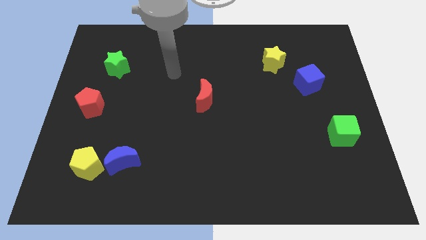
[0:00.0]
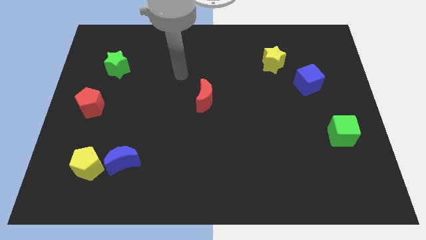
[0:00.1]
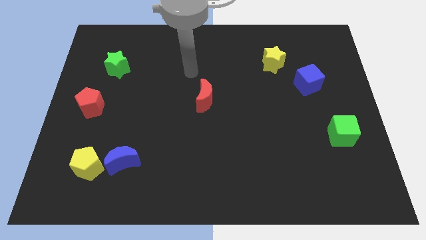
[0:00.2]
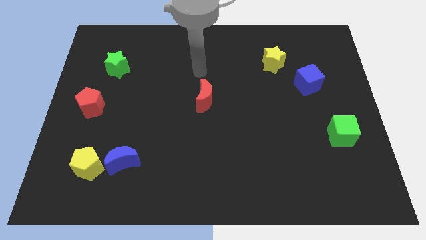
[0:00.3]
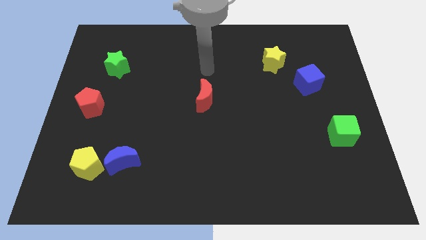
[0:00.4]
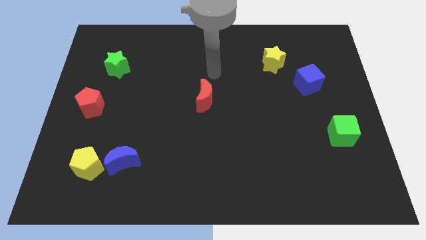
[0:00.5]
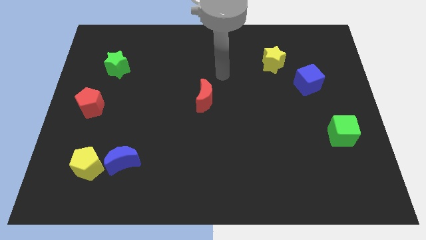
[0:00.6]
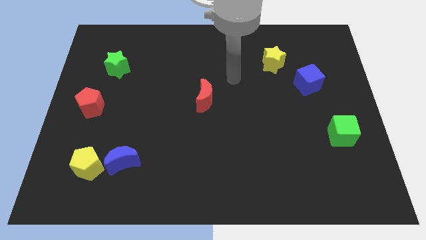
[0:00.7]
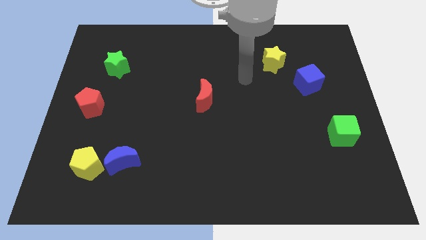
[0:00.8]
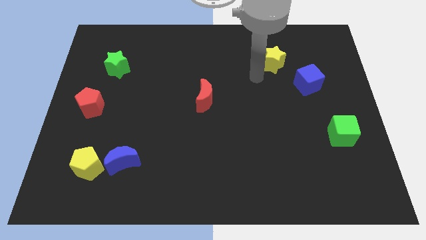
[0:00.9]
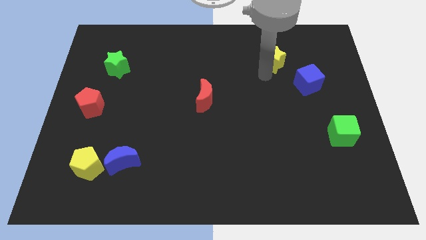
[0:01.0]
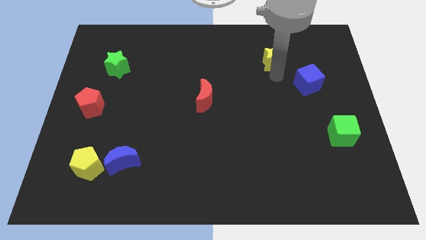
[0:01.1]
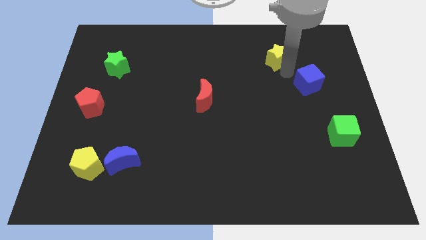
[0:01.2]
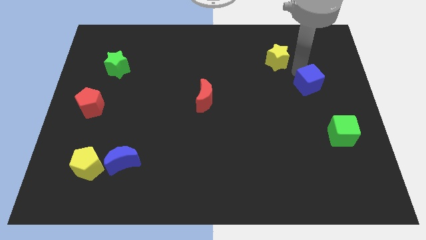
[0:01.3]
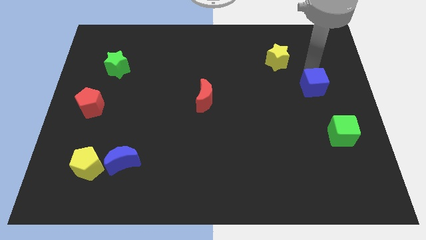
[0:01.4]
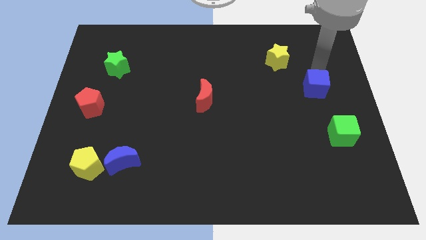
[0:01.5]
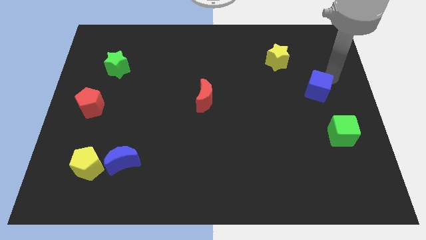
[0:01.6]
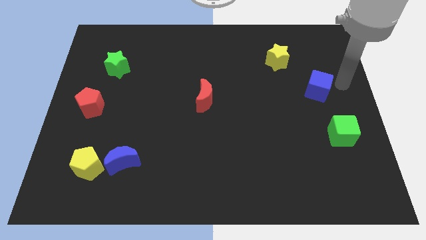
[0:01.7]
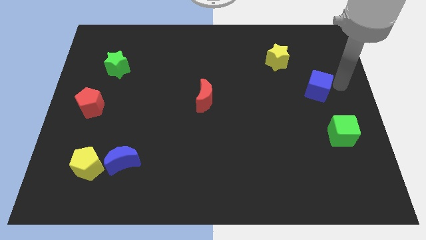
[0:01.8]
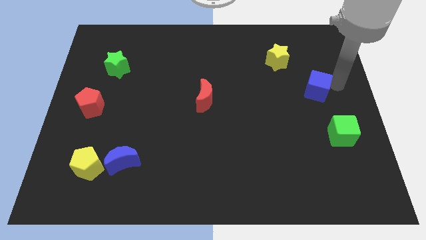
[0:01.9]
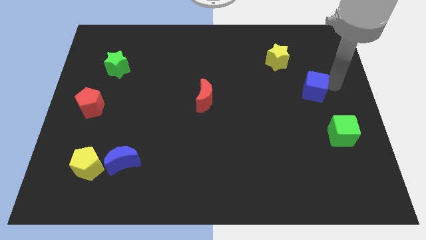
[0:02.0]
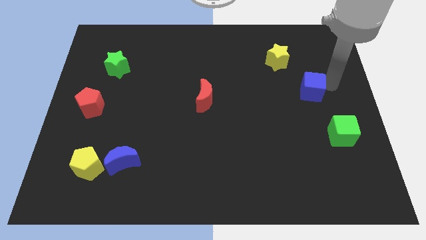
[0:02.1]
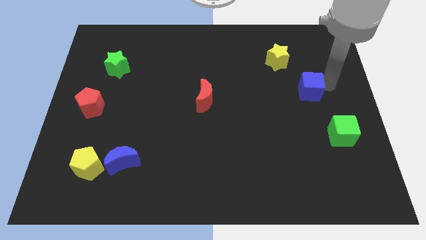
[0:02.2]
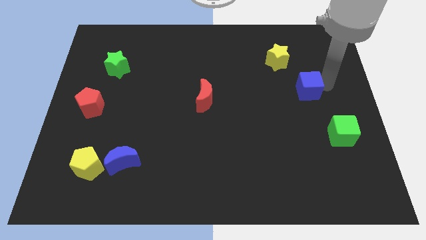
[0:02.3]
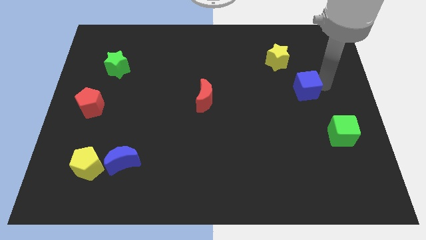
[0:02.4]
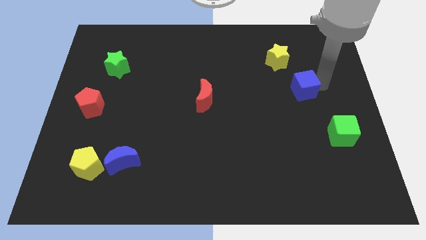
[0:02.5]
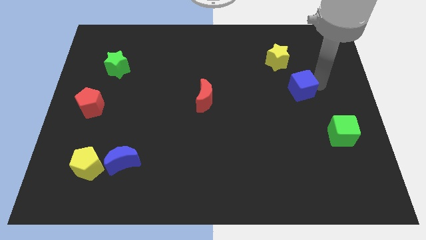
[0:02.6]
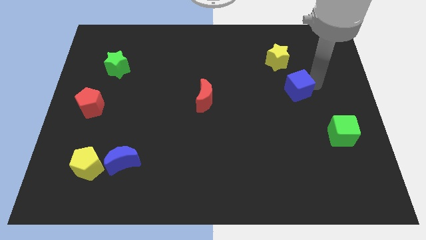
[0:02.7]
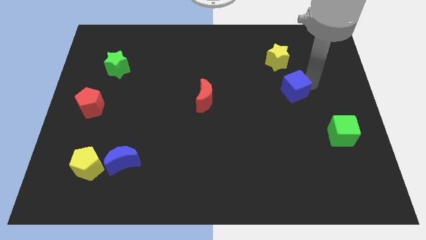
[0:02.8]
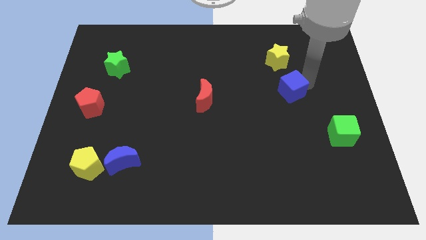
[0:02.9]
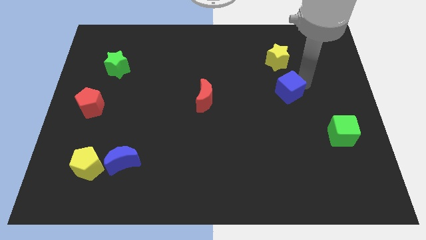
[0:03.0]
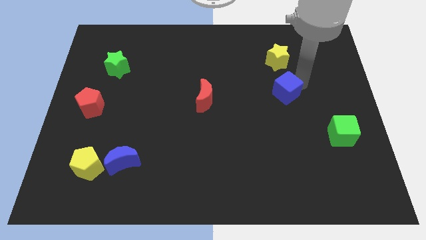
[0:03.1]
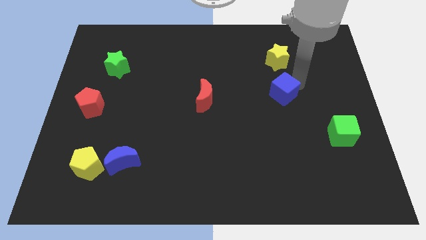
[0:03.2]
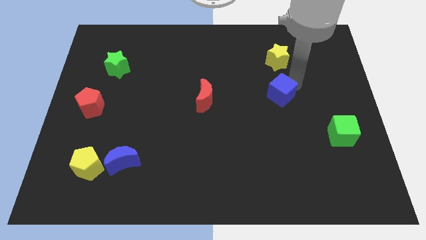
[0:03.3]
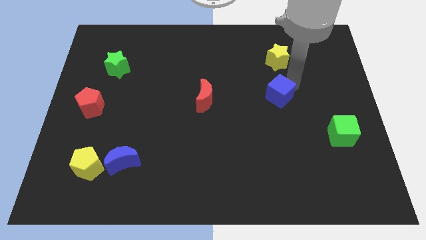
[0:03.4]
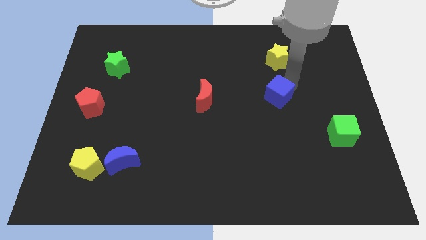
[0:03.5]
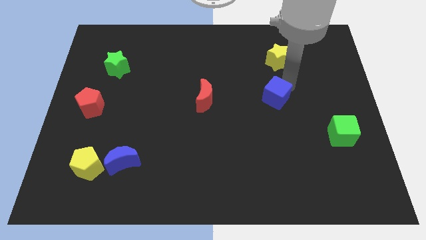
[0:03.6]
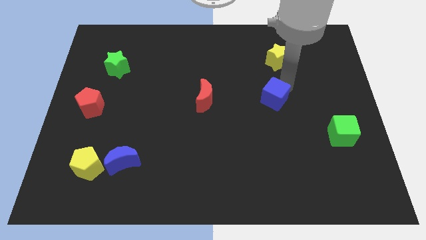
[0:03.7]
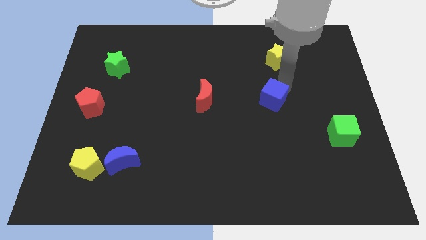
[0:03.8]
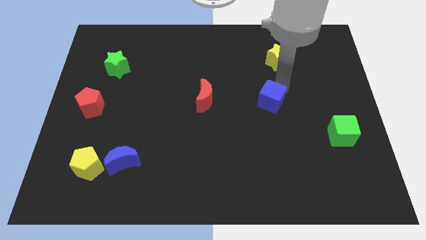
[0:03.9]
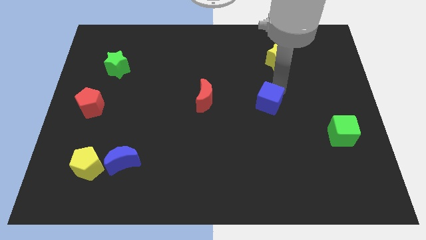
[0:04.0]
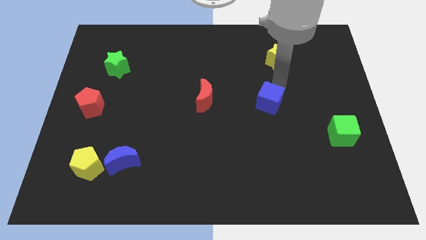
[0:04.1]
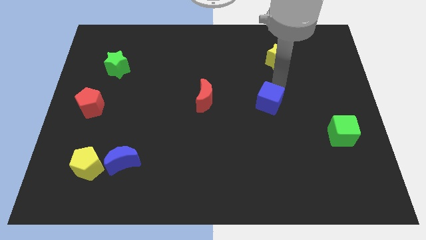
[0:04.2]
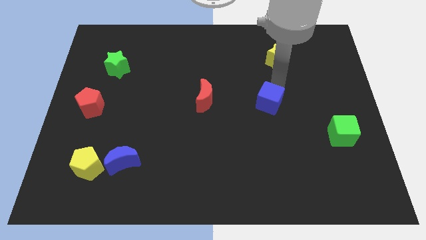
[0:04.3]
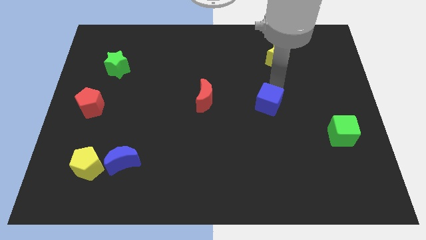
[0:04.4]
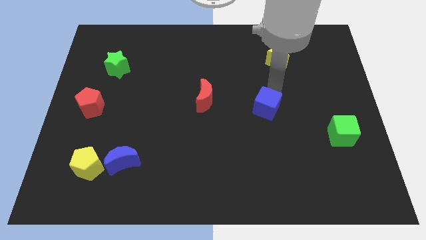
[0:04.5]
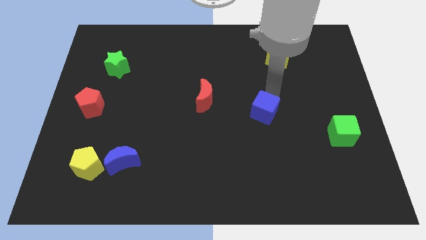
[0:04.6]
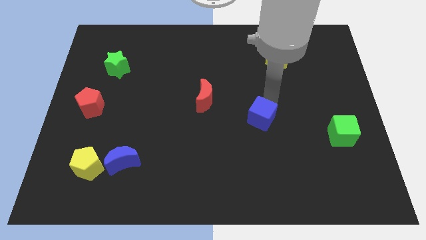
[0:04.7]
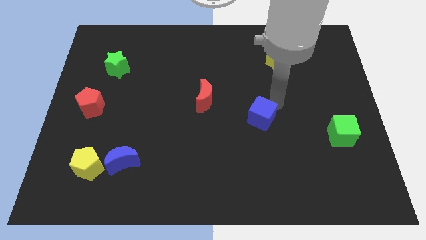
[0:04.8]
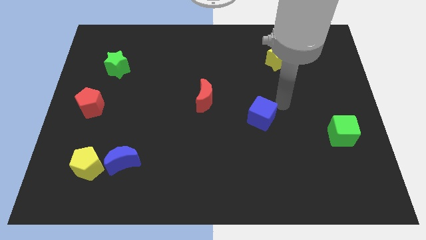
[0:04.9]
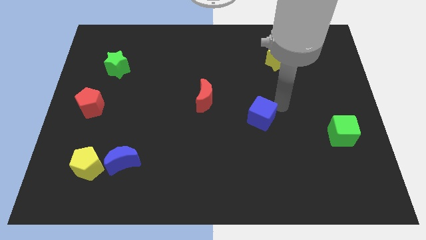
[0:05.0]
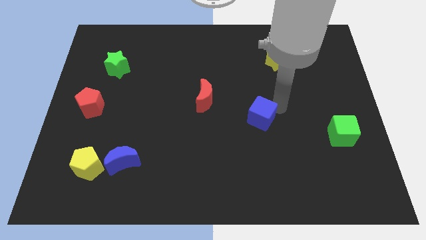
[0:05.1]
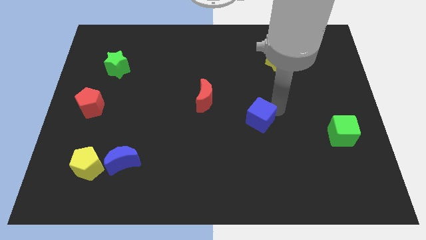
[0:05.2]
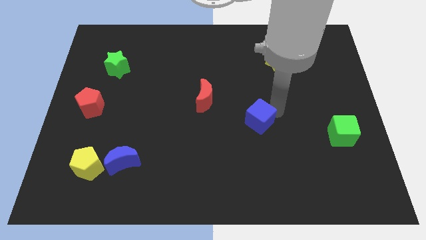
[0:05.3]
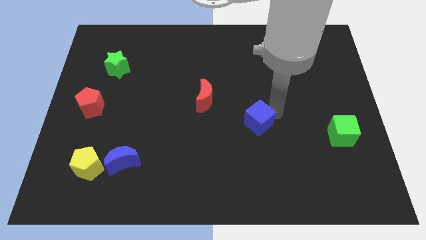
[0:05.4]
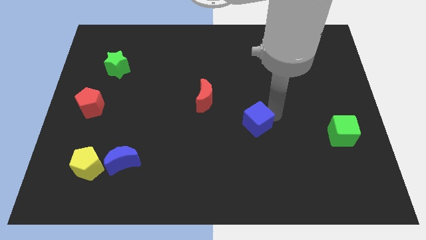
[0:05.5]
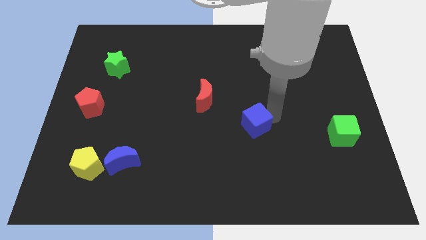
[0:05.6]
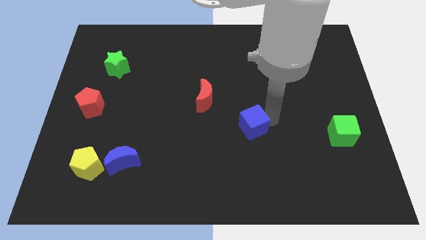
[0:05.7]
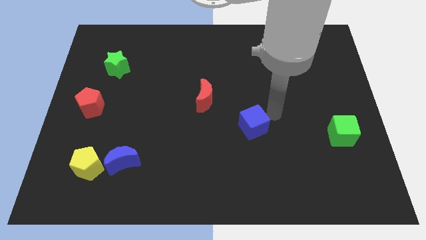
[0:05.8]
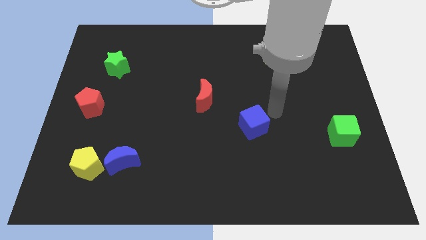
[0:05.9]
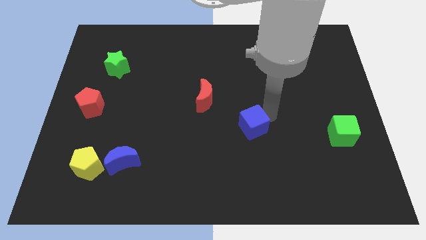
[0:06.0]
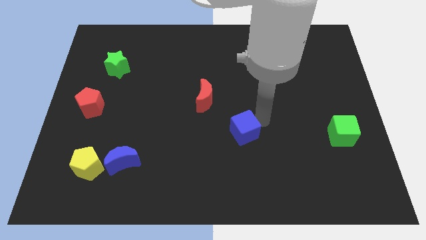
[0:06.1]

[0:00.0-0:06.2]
move the blue cube diagonally down and to the left

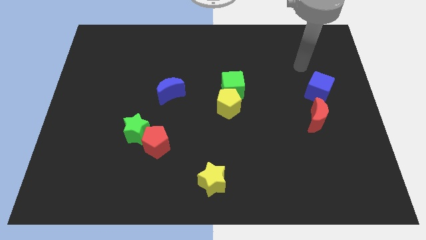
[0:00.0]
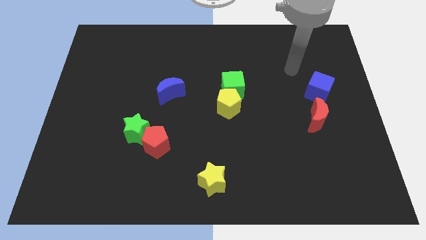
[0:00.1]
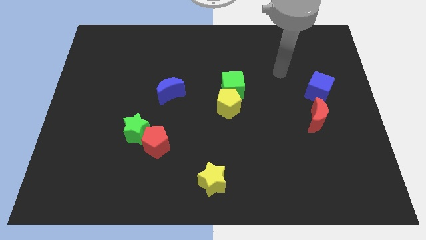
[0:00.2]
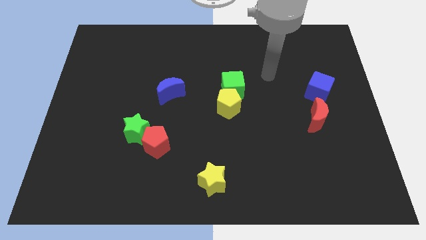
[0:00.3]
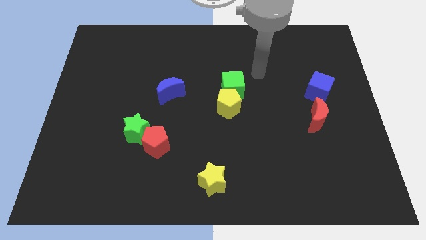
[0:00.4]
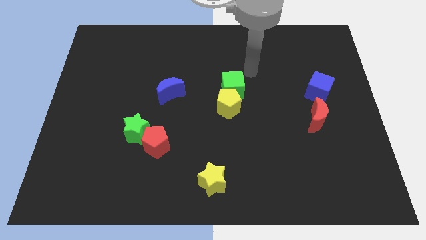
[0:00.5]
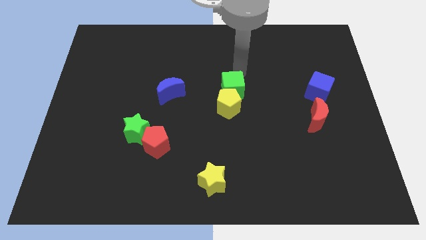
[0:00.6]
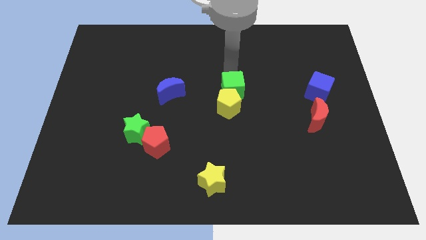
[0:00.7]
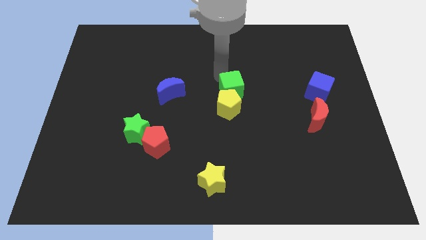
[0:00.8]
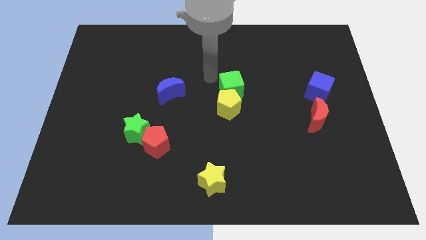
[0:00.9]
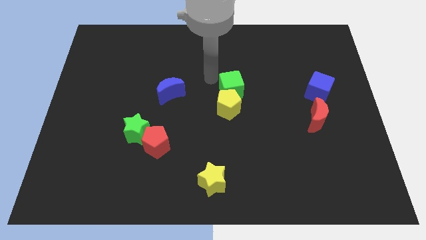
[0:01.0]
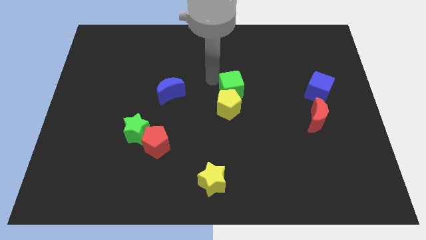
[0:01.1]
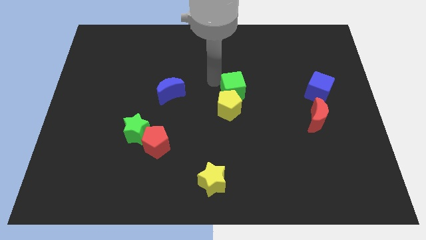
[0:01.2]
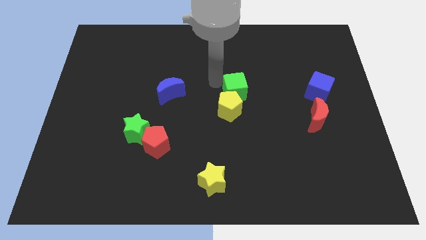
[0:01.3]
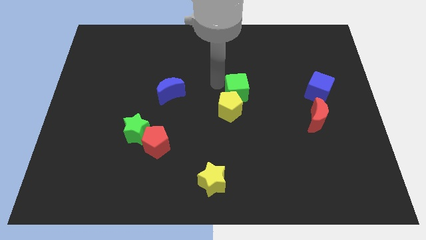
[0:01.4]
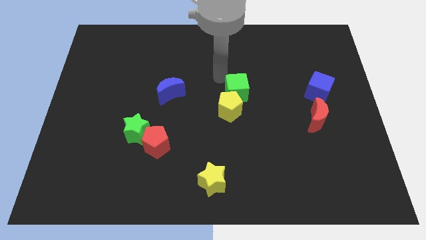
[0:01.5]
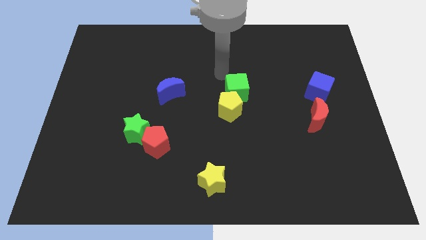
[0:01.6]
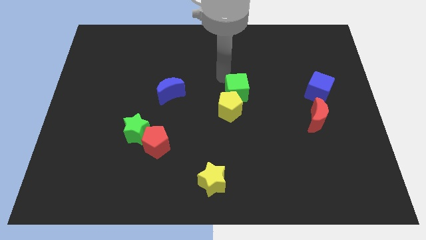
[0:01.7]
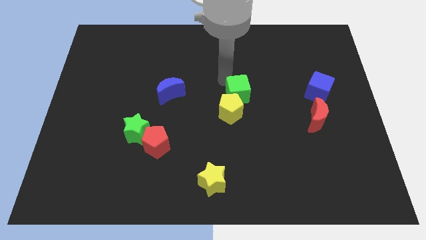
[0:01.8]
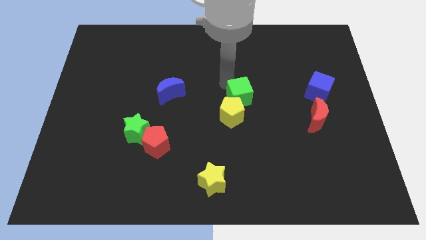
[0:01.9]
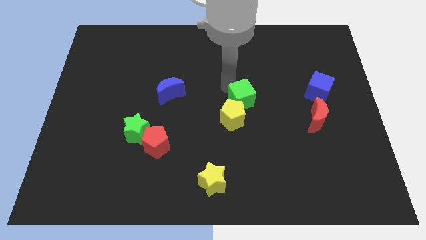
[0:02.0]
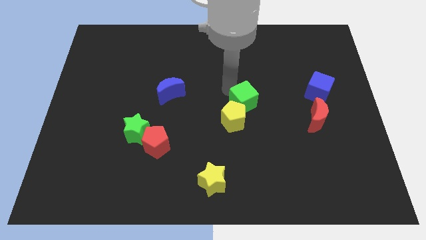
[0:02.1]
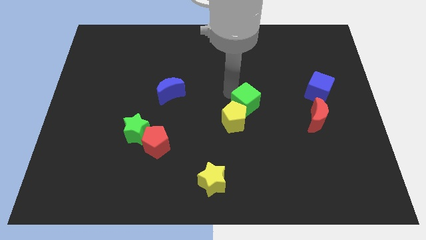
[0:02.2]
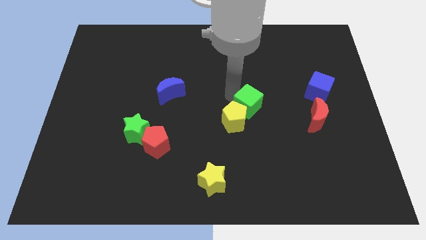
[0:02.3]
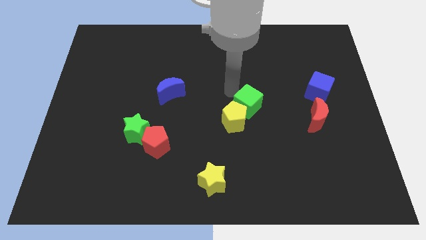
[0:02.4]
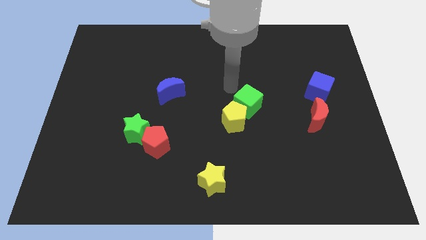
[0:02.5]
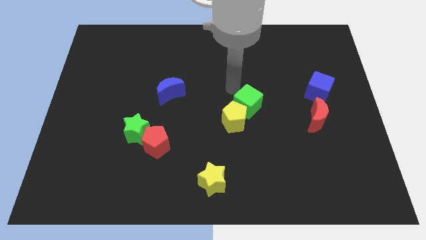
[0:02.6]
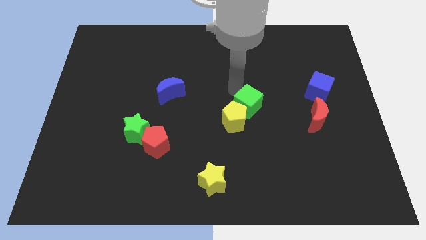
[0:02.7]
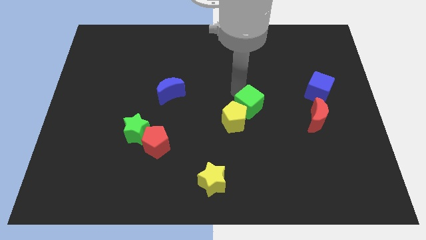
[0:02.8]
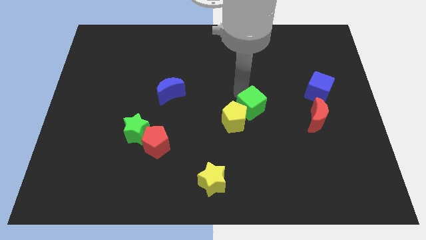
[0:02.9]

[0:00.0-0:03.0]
slightly push the green cube down and to the right diagonally
